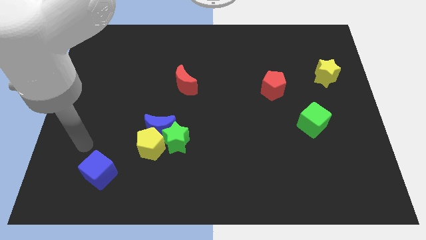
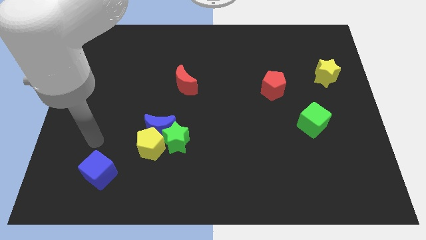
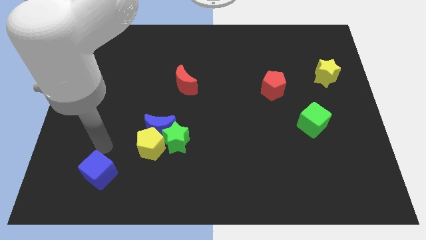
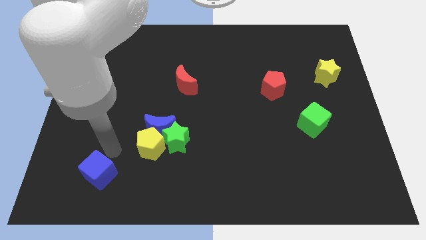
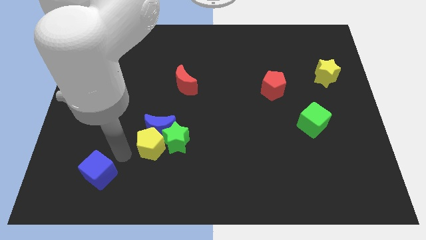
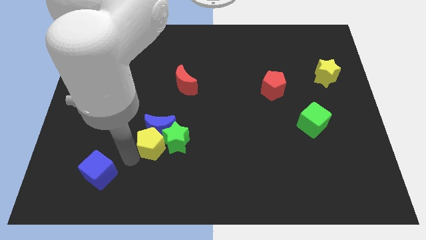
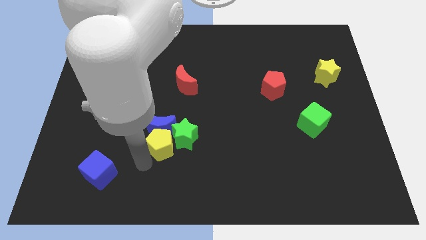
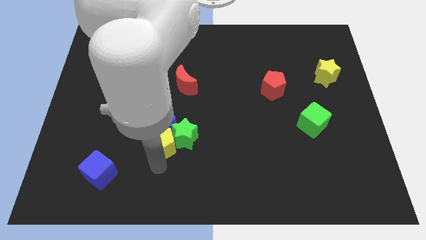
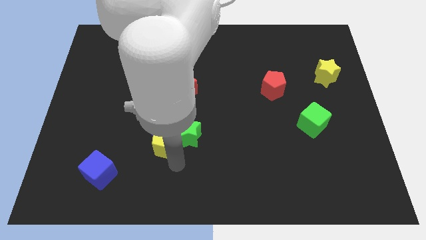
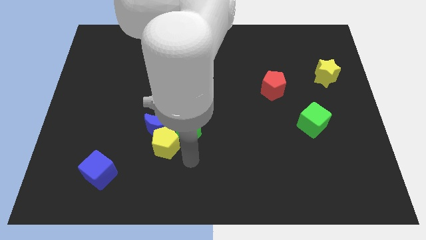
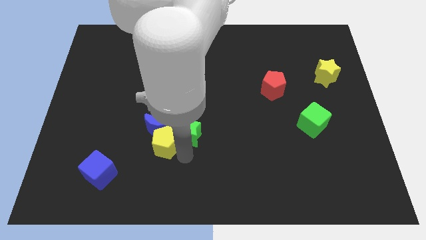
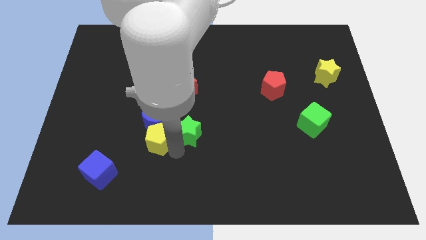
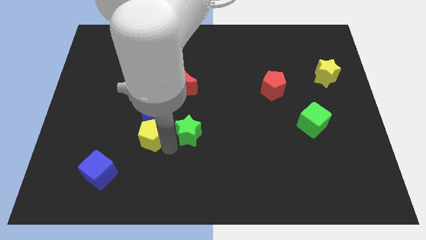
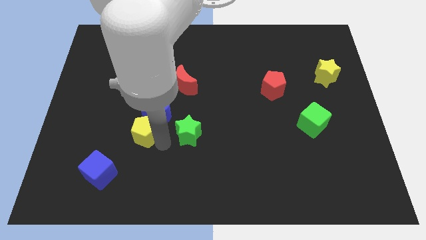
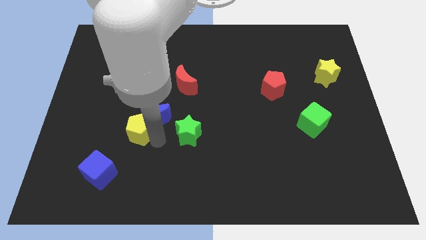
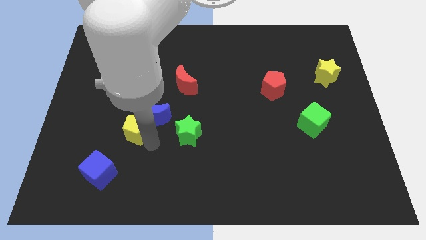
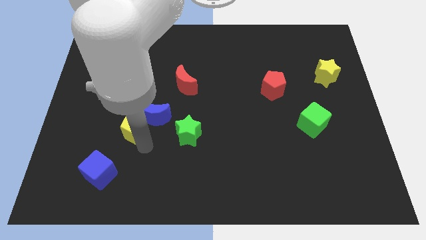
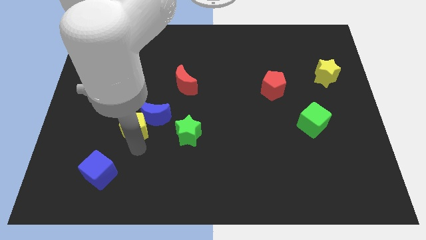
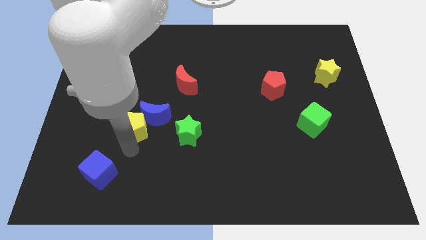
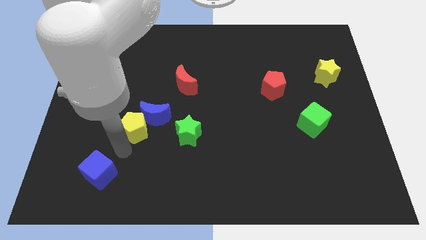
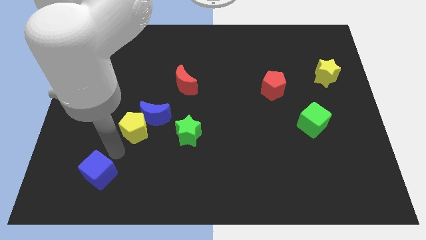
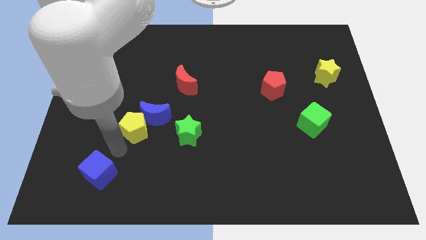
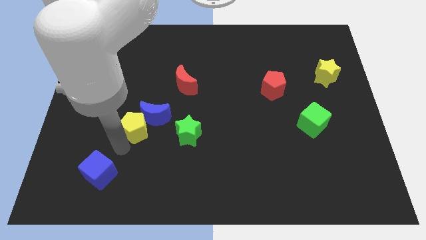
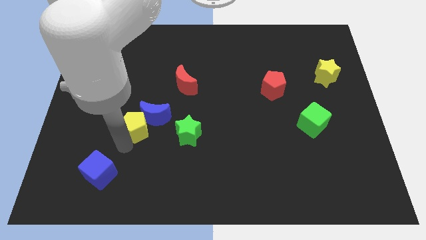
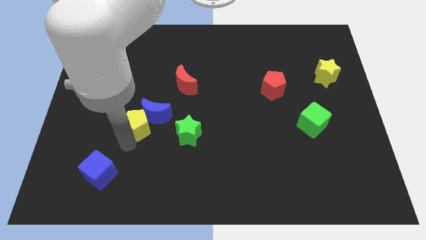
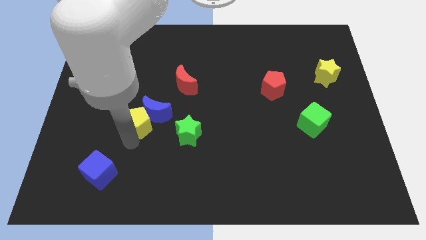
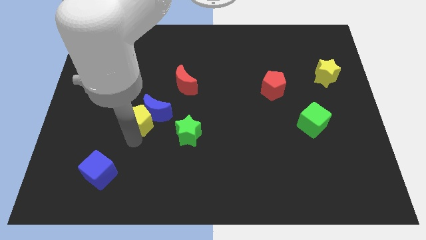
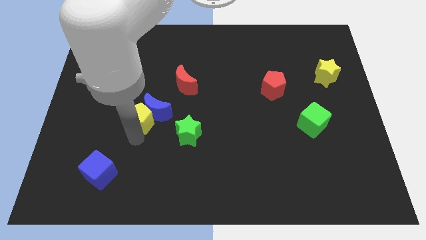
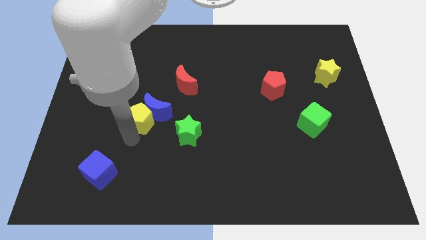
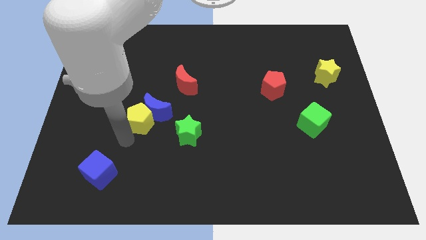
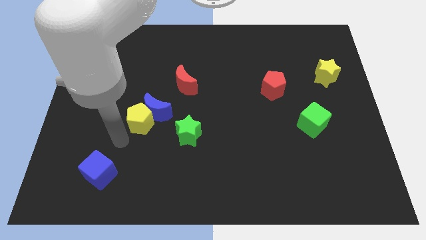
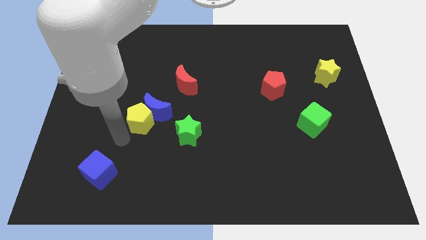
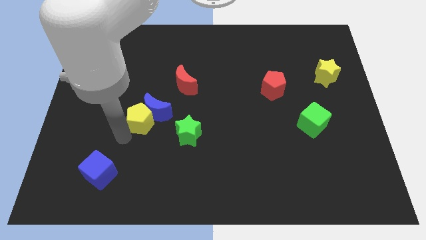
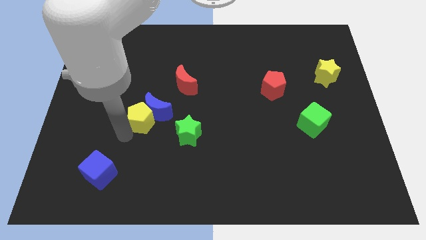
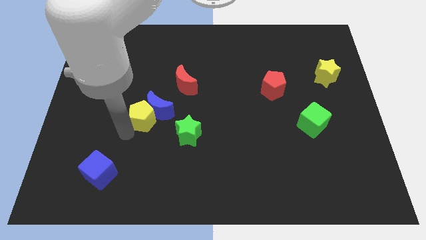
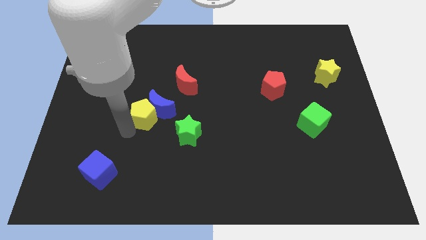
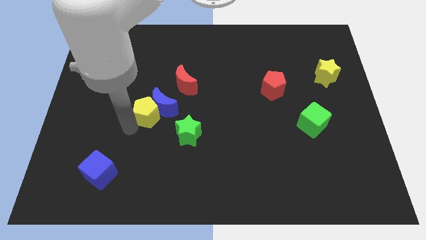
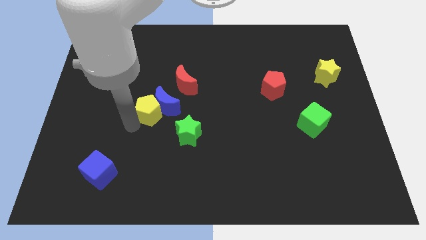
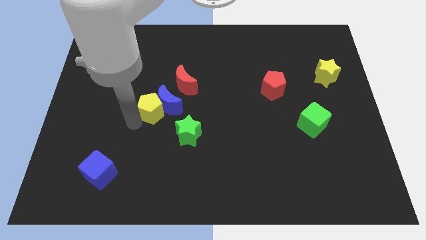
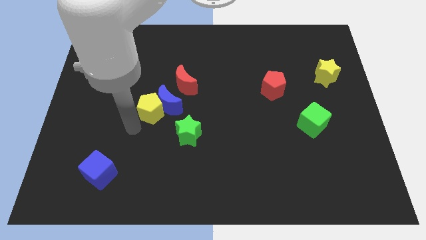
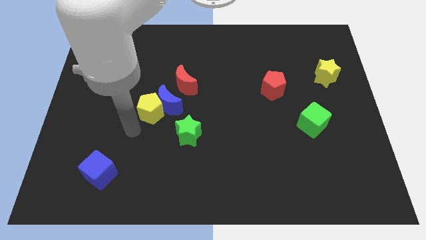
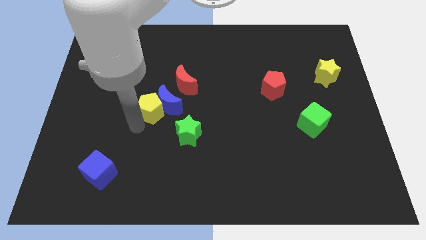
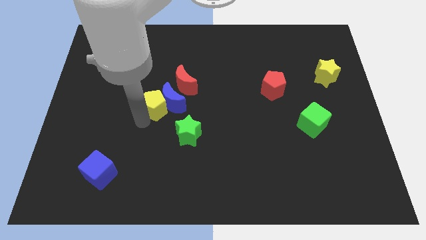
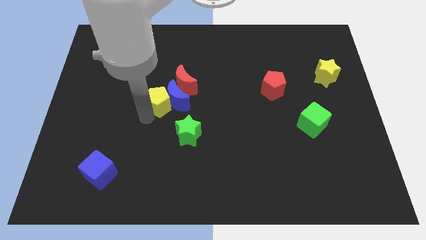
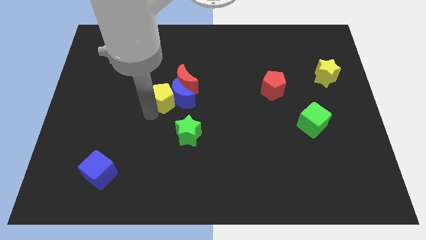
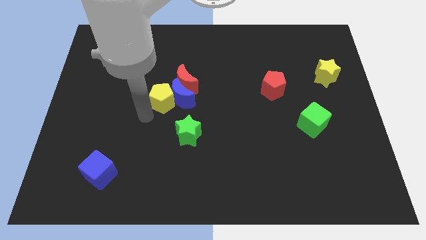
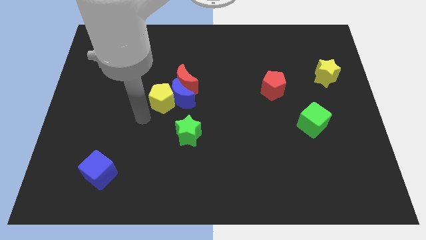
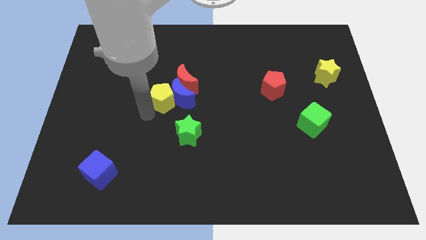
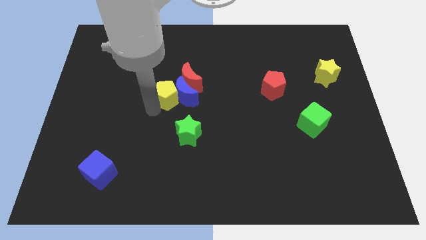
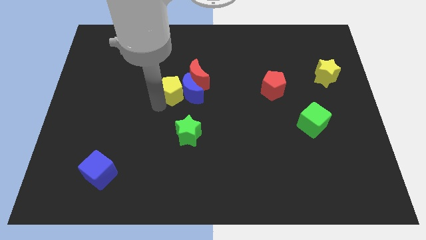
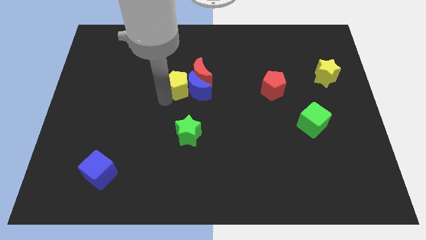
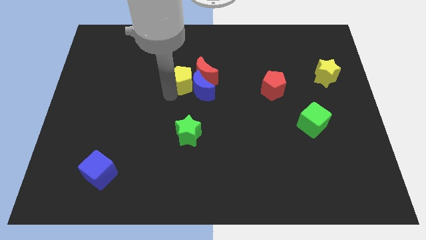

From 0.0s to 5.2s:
slide the yellow pentagon towards the red moon

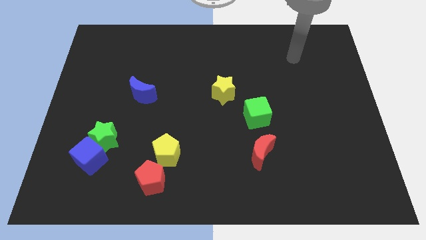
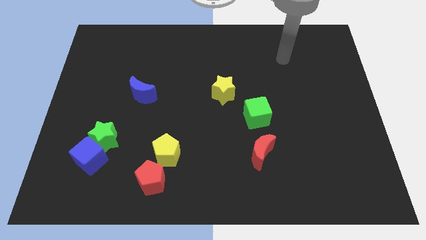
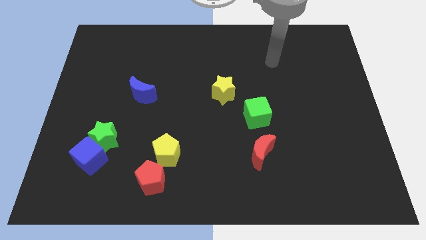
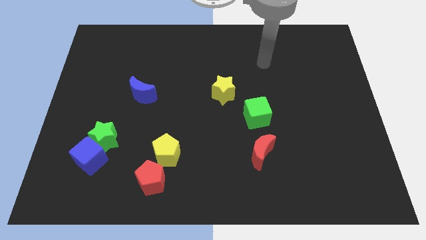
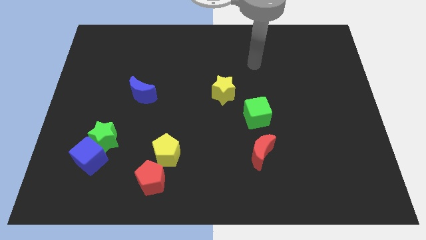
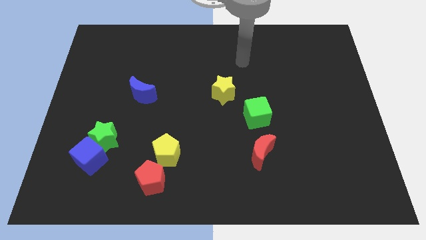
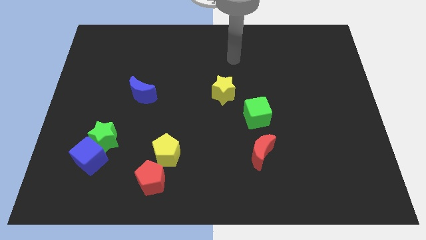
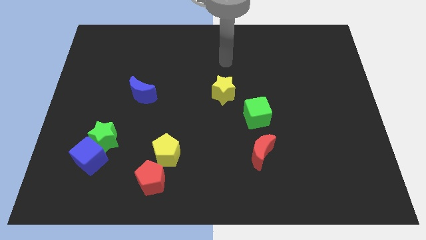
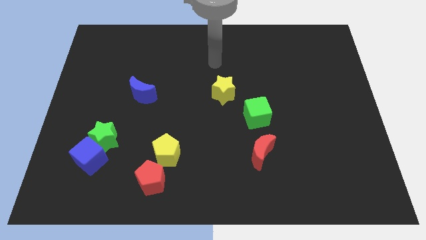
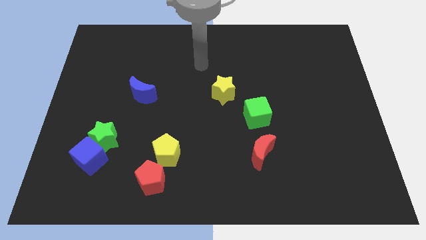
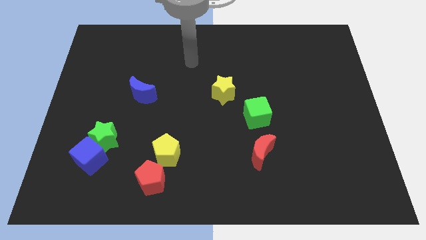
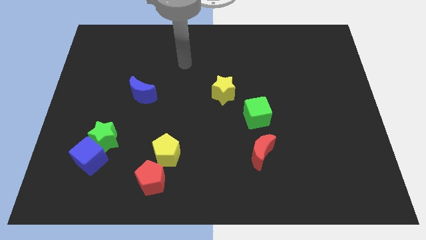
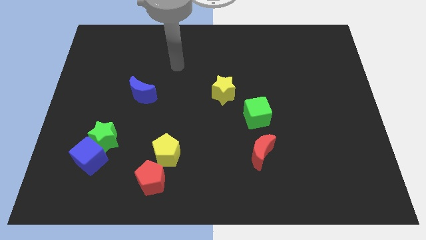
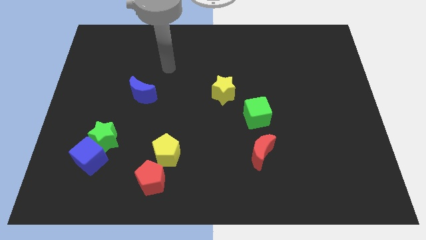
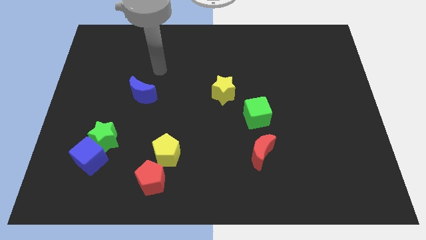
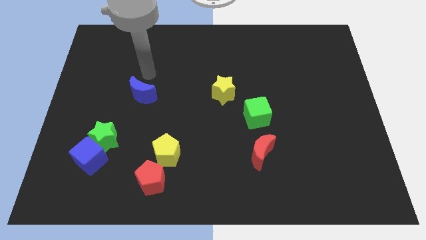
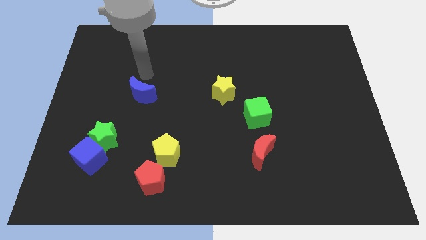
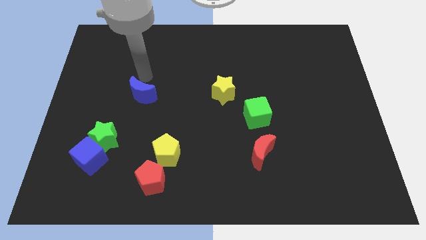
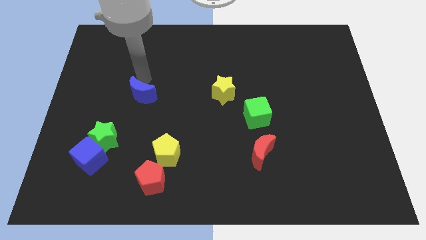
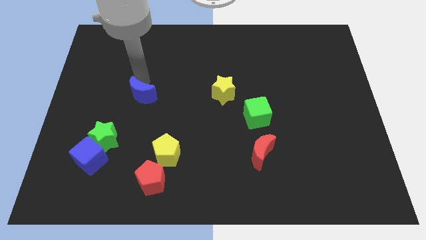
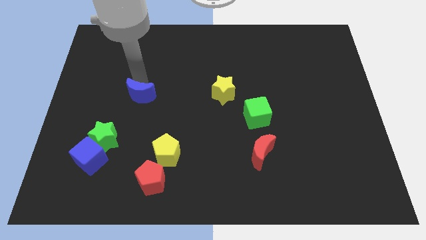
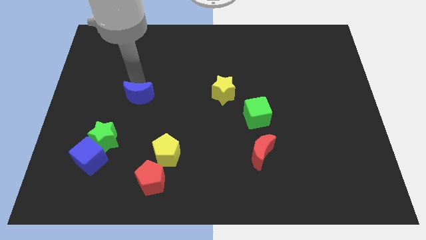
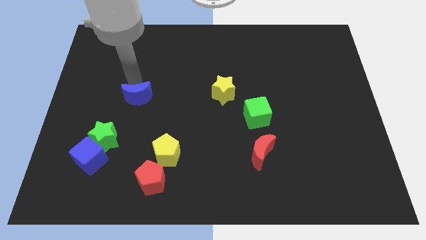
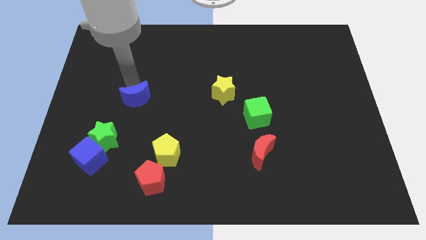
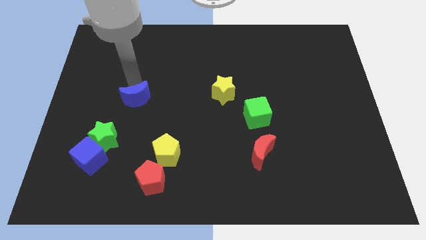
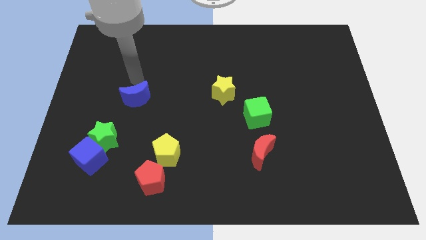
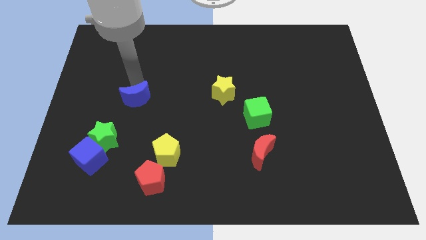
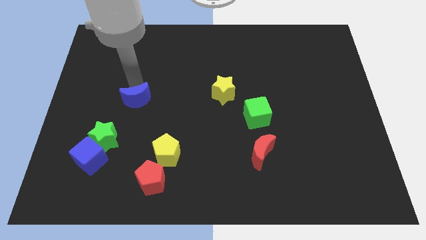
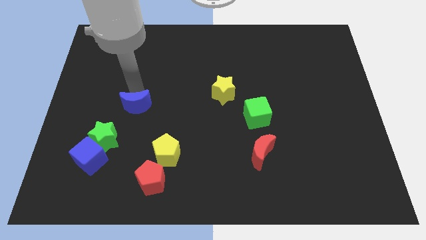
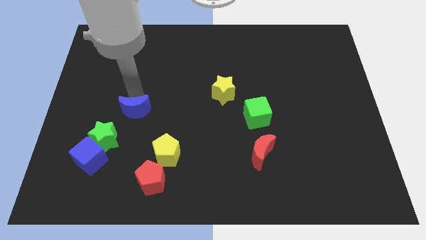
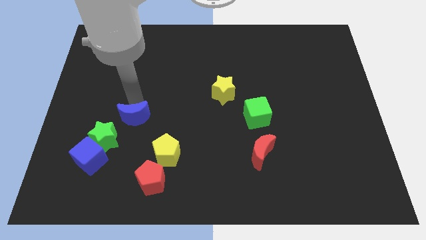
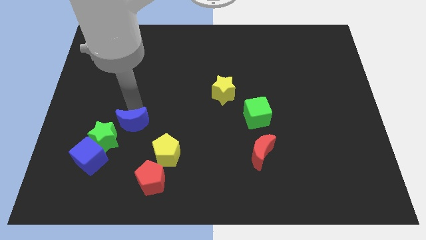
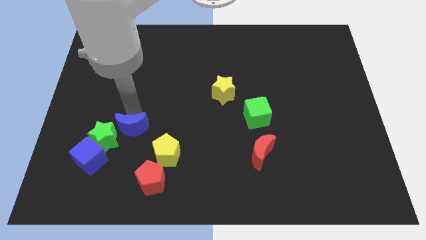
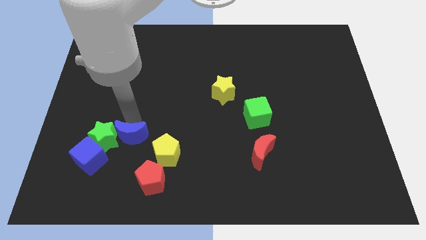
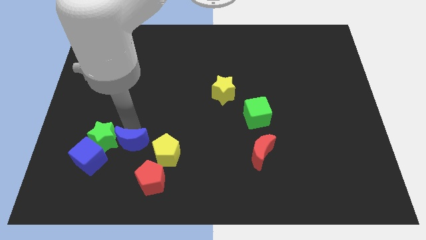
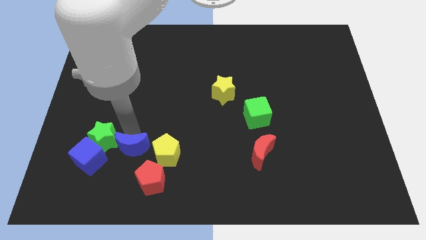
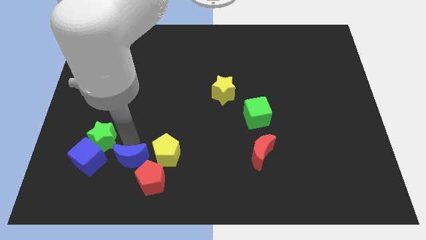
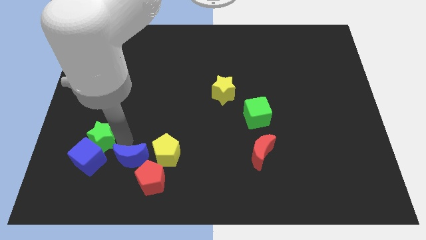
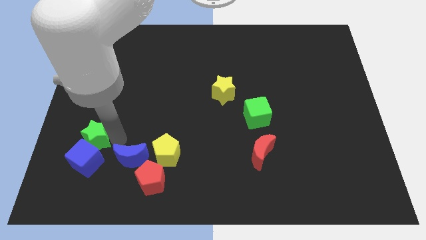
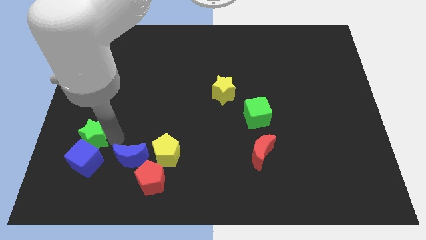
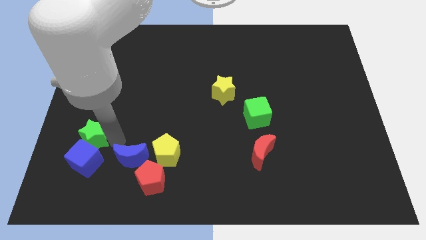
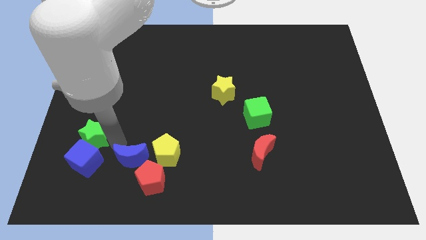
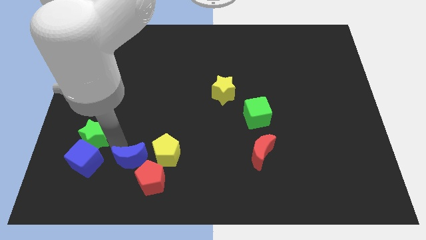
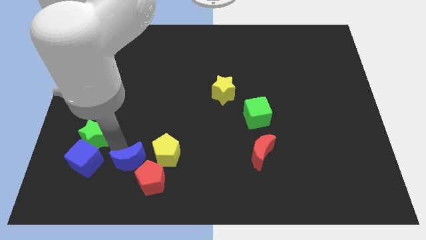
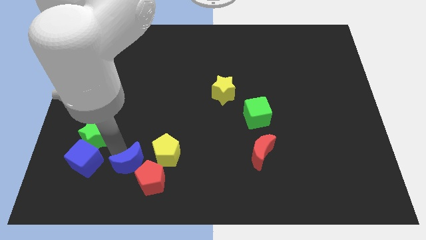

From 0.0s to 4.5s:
put the blue moon to the red pentagon
